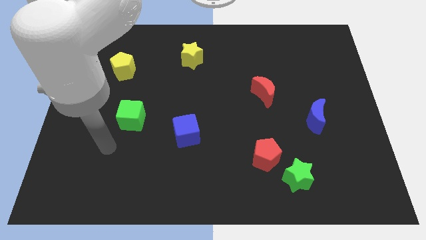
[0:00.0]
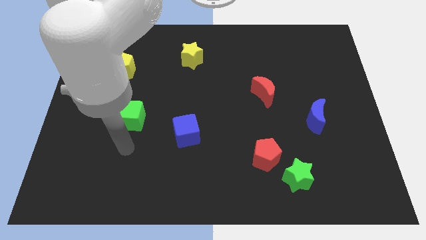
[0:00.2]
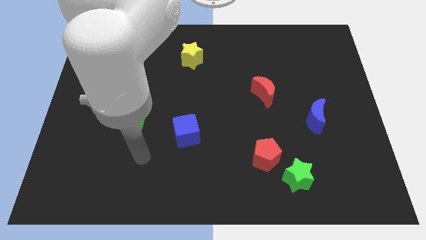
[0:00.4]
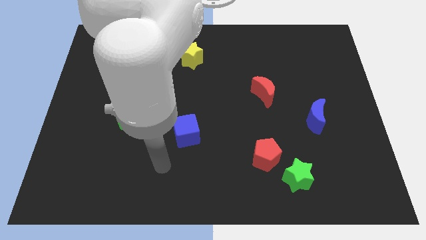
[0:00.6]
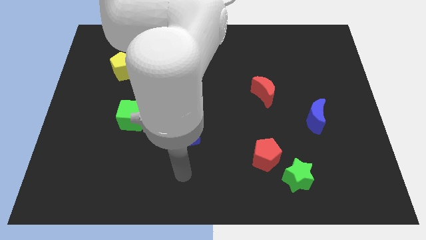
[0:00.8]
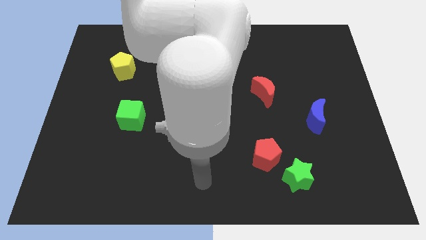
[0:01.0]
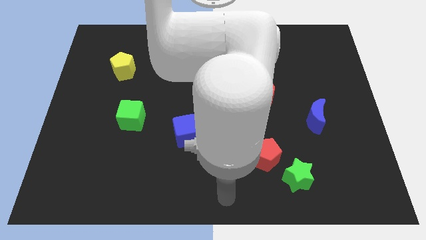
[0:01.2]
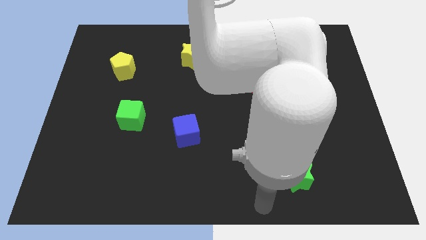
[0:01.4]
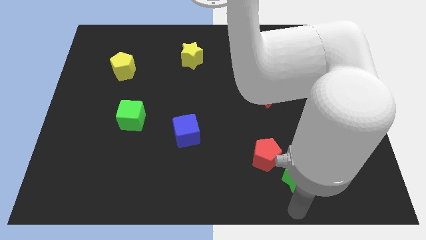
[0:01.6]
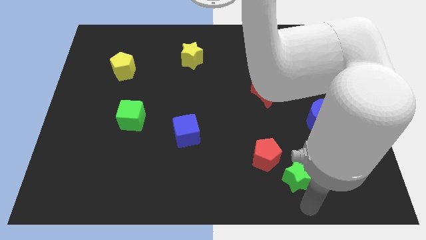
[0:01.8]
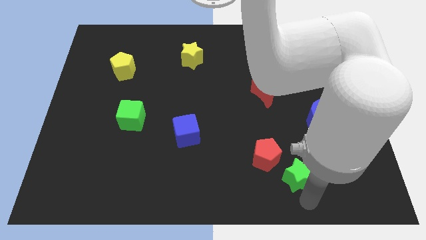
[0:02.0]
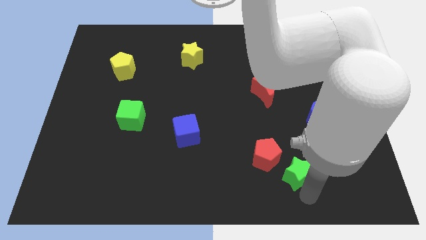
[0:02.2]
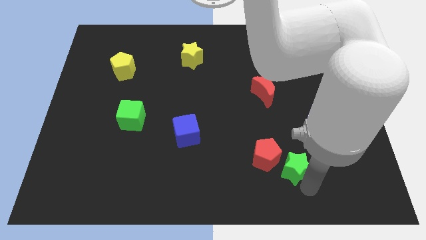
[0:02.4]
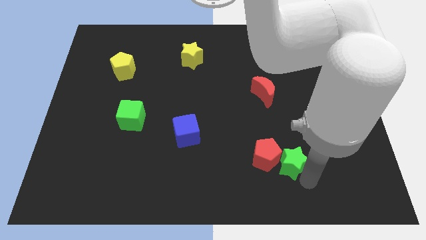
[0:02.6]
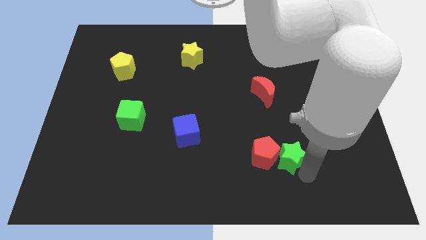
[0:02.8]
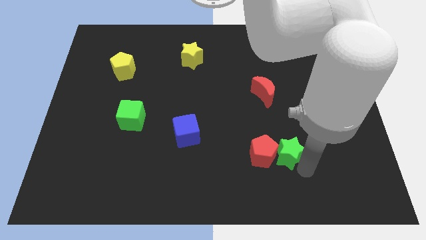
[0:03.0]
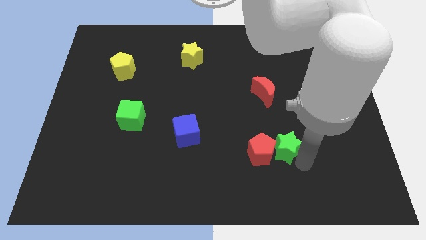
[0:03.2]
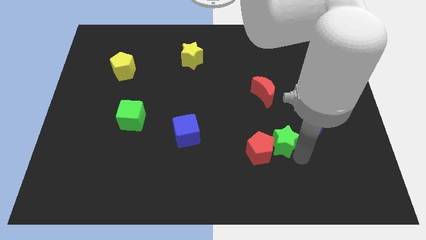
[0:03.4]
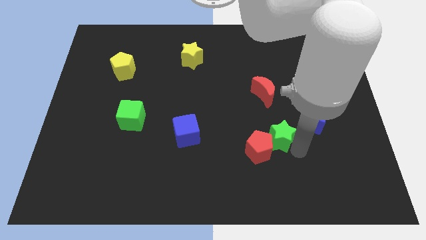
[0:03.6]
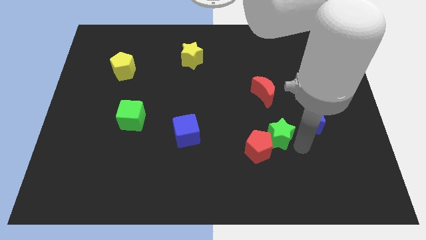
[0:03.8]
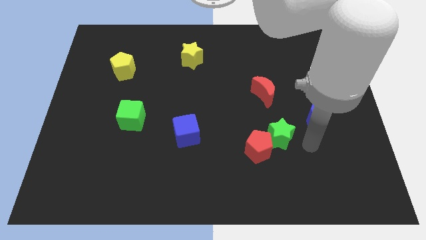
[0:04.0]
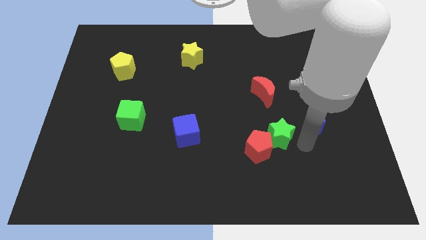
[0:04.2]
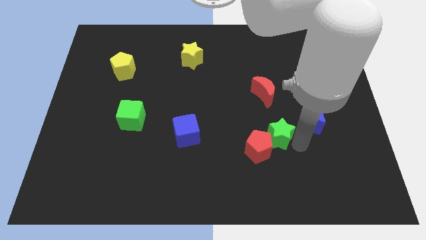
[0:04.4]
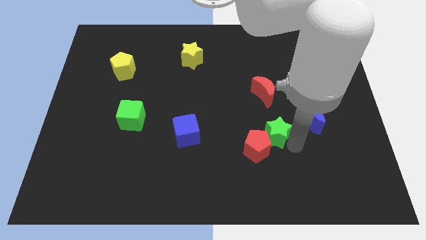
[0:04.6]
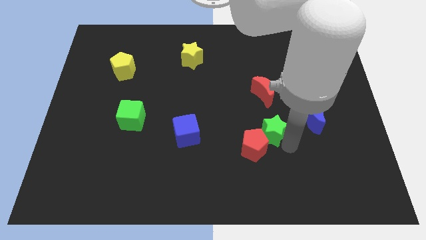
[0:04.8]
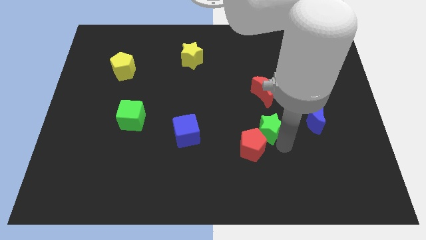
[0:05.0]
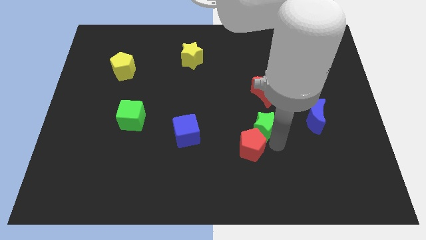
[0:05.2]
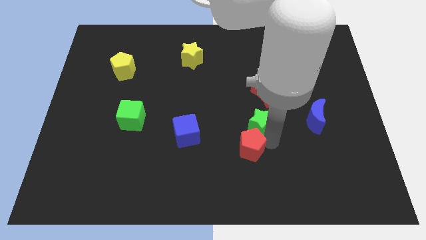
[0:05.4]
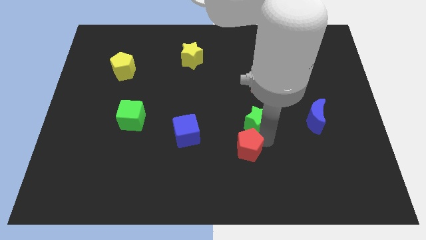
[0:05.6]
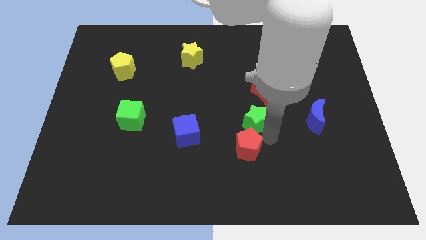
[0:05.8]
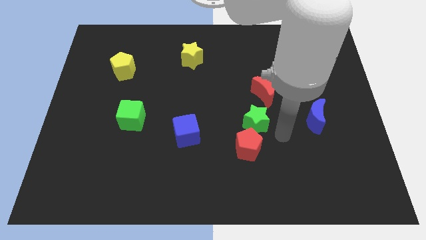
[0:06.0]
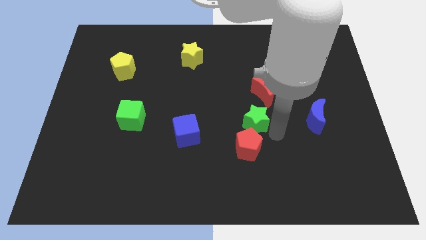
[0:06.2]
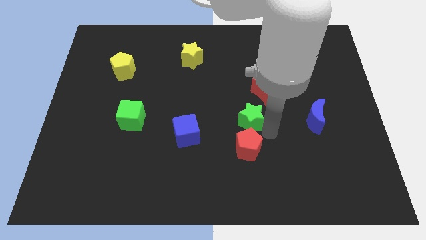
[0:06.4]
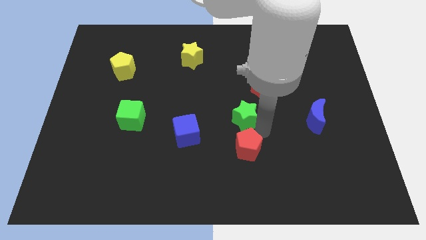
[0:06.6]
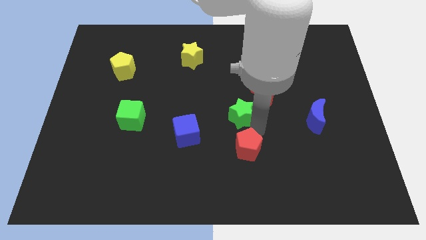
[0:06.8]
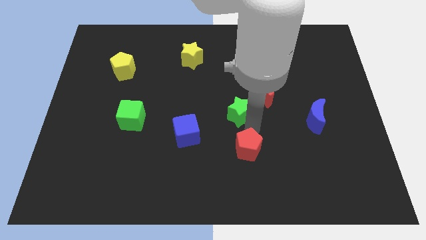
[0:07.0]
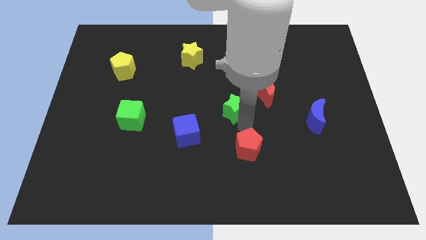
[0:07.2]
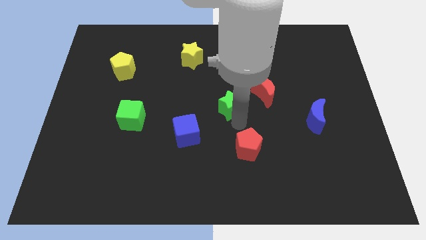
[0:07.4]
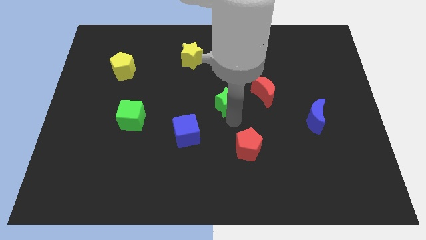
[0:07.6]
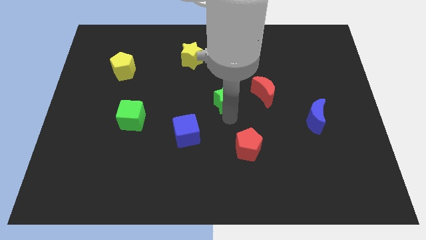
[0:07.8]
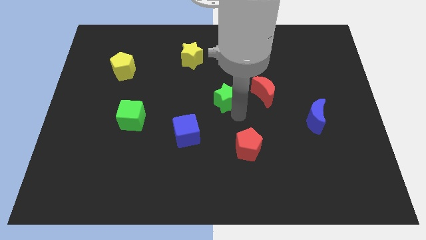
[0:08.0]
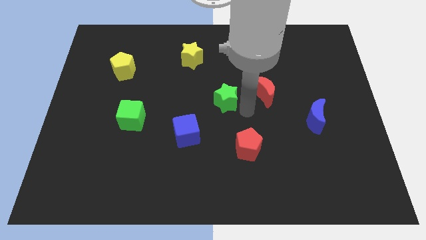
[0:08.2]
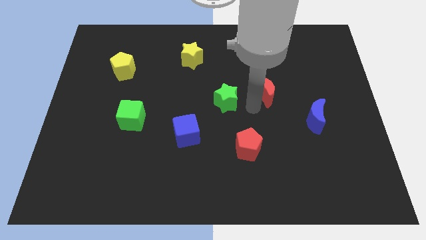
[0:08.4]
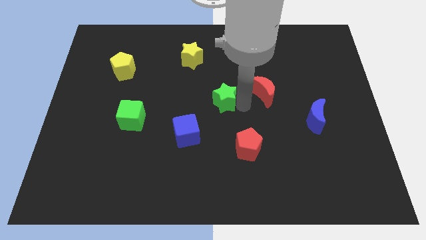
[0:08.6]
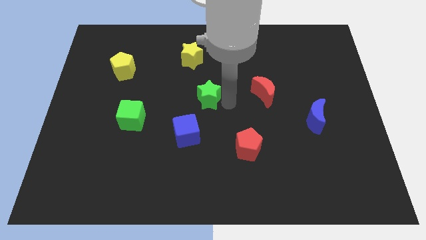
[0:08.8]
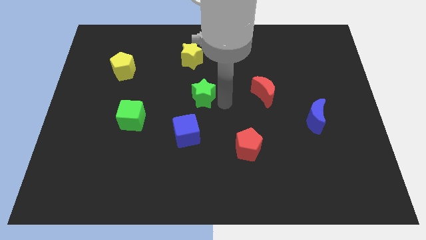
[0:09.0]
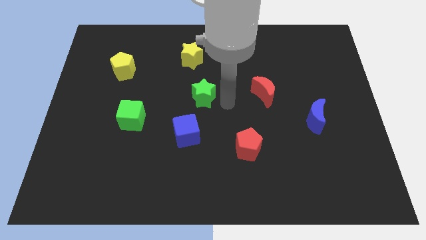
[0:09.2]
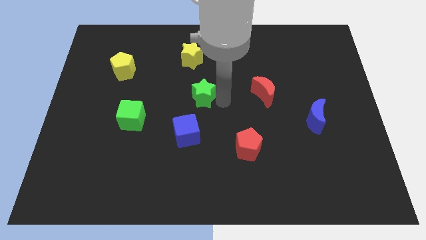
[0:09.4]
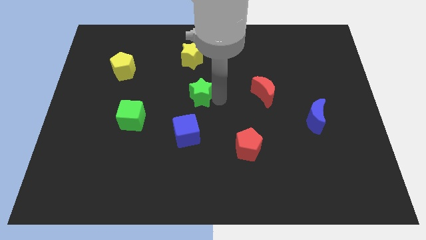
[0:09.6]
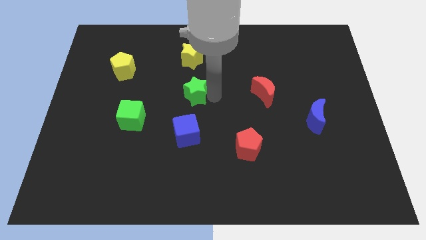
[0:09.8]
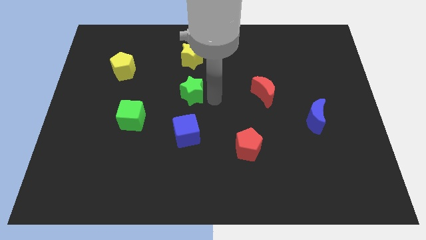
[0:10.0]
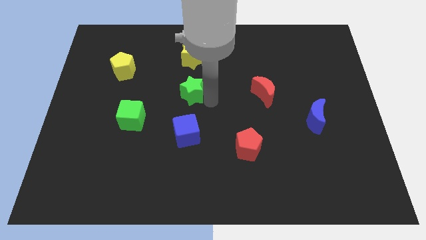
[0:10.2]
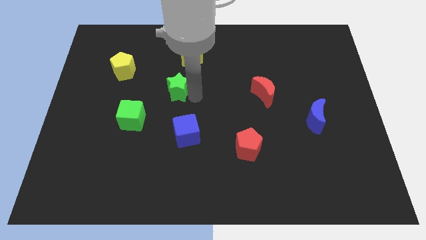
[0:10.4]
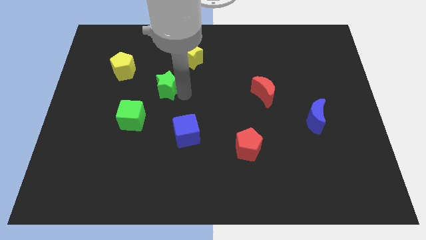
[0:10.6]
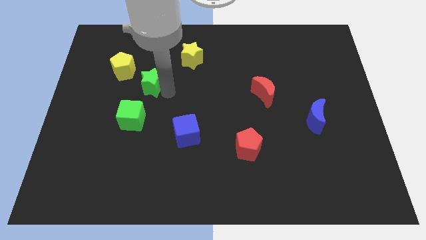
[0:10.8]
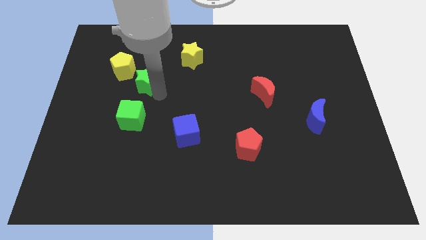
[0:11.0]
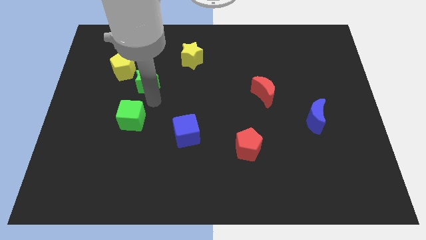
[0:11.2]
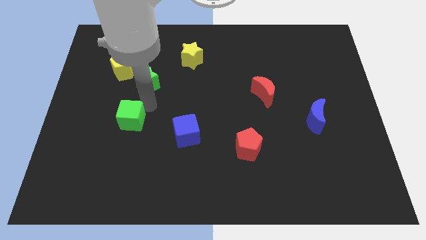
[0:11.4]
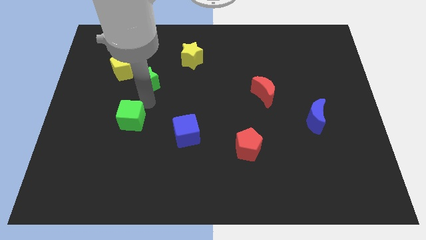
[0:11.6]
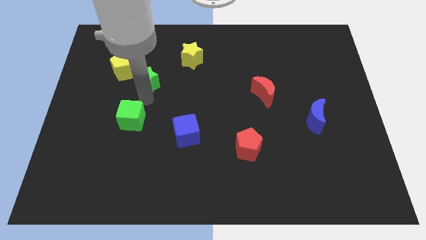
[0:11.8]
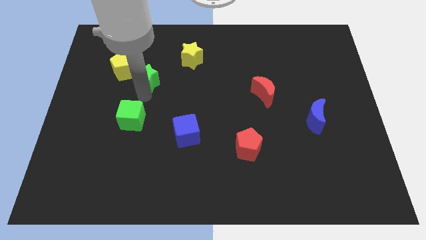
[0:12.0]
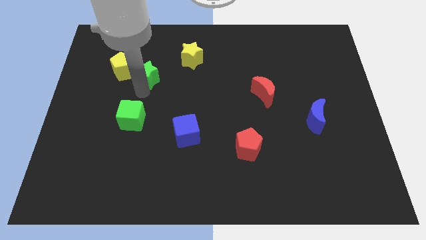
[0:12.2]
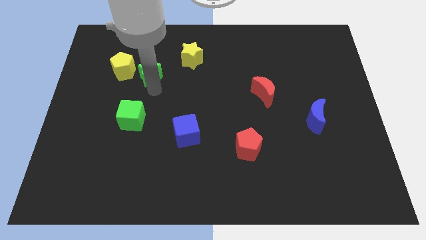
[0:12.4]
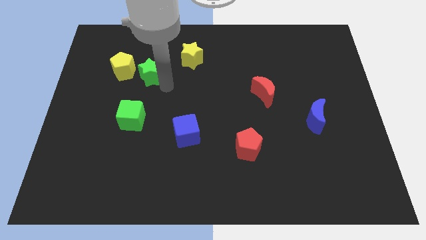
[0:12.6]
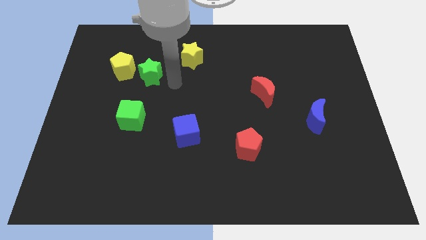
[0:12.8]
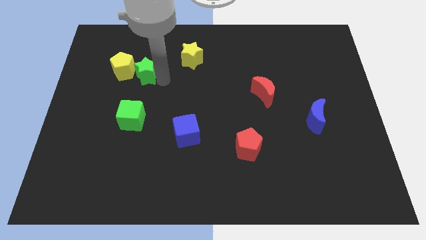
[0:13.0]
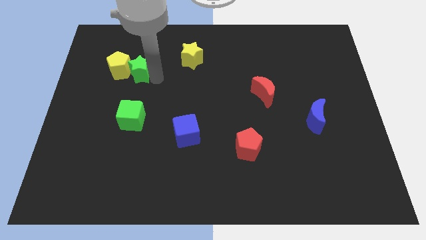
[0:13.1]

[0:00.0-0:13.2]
move the green star next to the yellow pentagon
